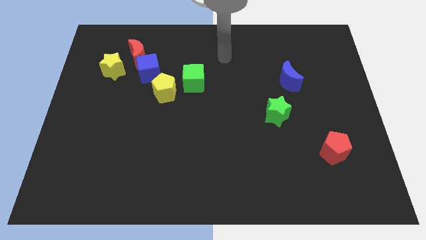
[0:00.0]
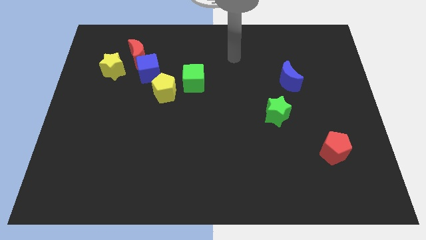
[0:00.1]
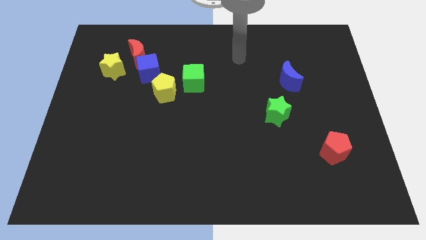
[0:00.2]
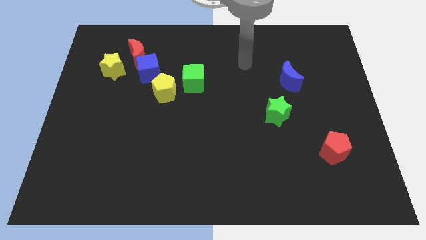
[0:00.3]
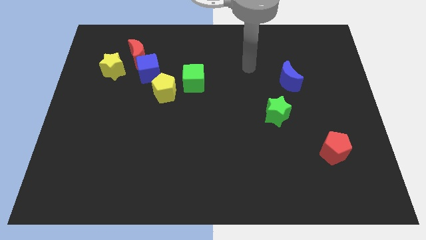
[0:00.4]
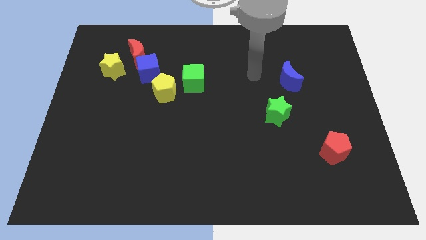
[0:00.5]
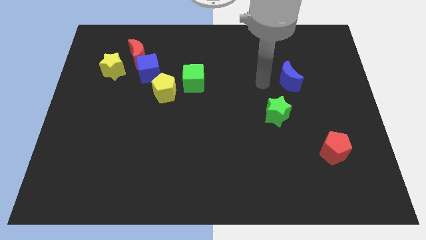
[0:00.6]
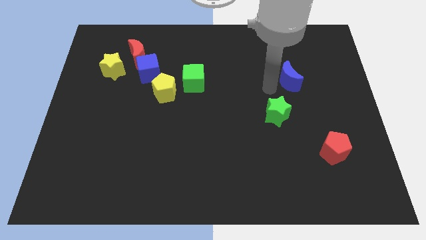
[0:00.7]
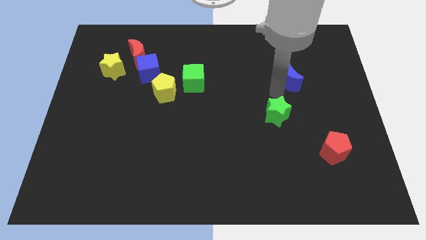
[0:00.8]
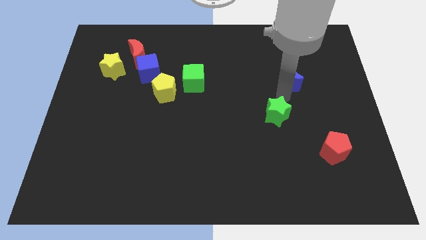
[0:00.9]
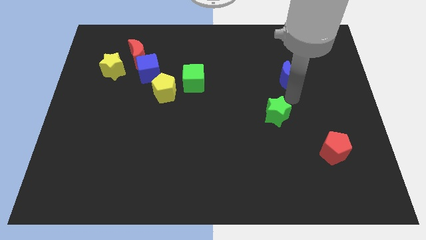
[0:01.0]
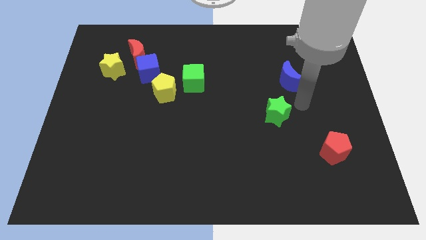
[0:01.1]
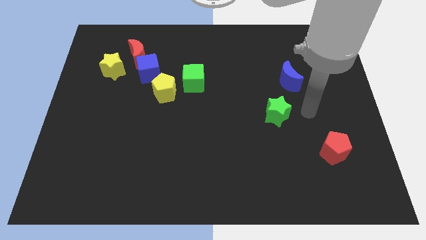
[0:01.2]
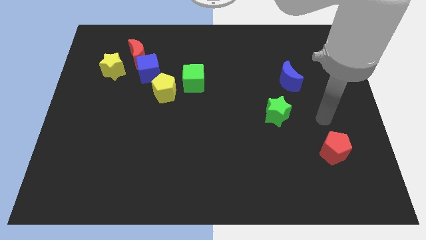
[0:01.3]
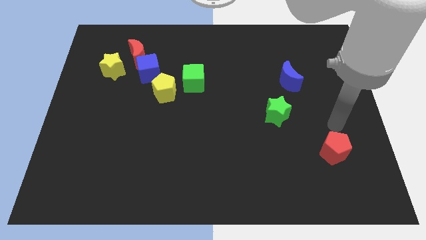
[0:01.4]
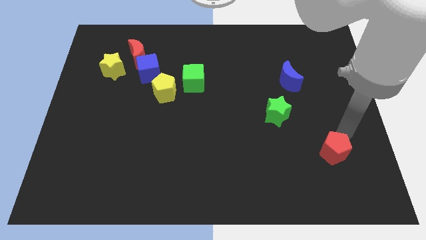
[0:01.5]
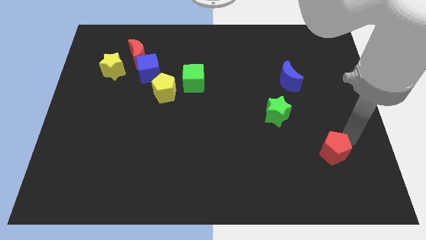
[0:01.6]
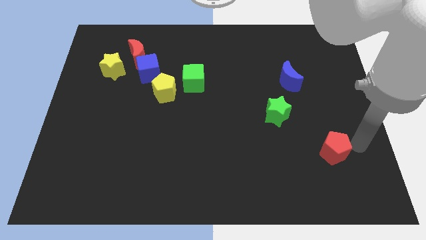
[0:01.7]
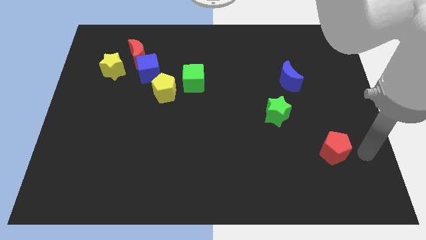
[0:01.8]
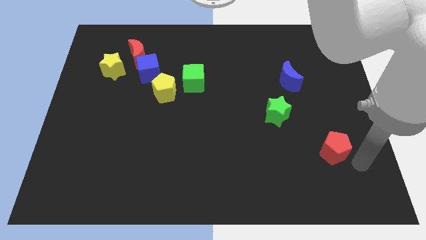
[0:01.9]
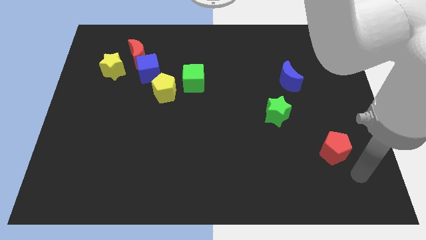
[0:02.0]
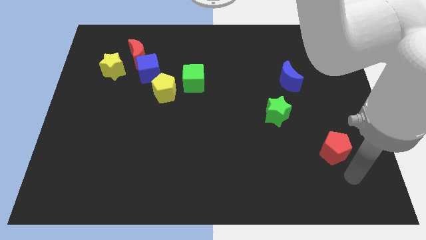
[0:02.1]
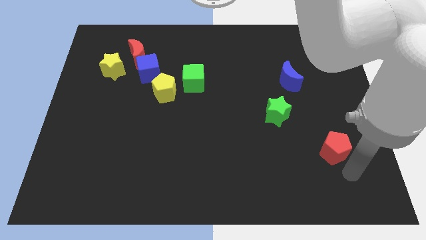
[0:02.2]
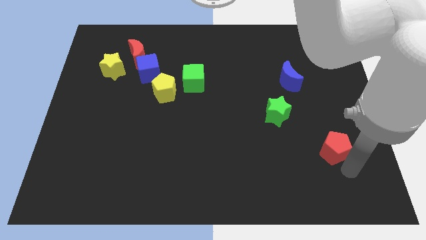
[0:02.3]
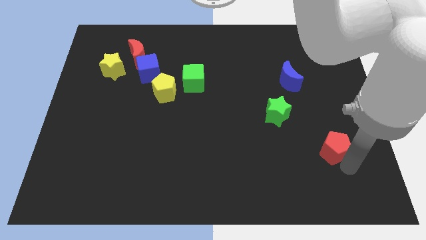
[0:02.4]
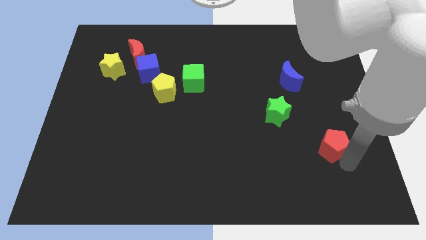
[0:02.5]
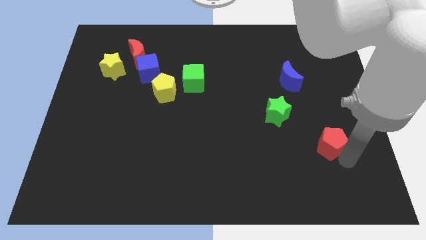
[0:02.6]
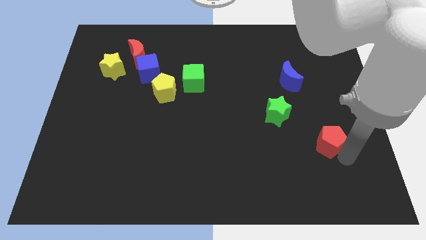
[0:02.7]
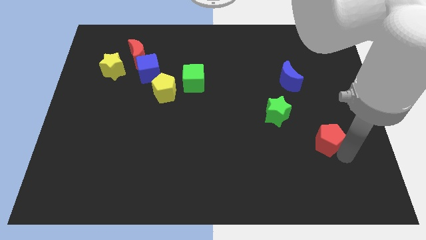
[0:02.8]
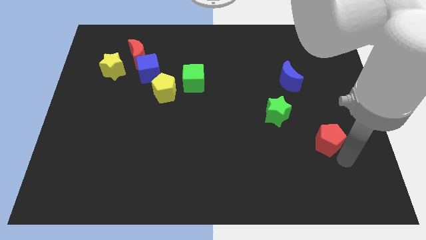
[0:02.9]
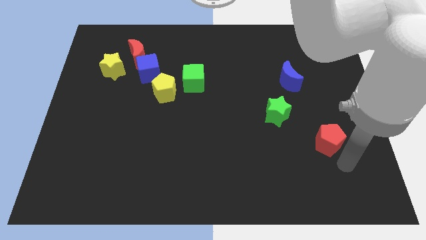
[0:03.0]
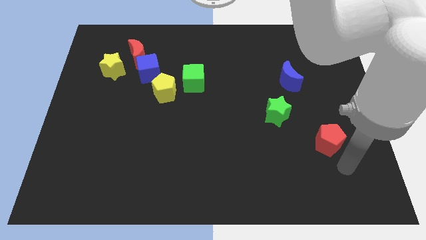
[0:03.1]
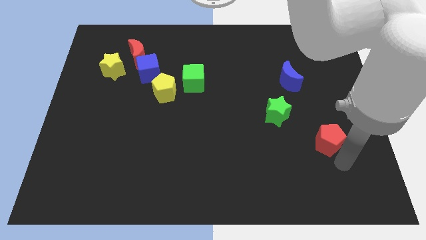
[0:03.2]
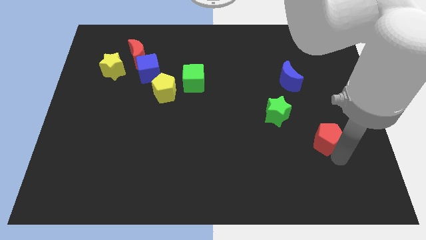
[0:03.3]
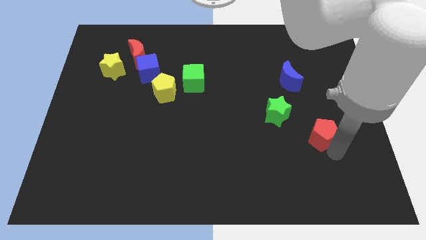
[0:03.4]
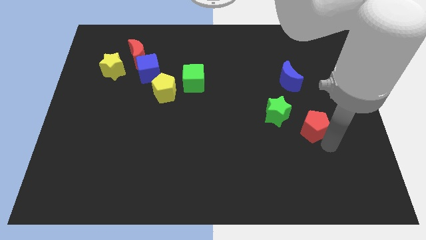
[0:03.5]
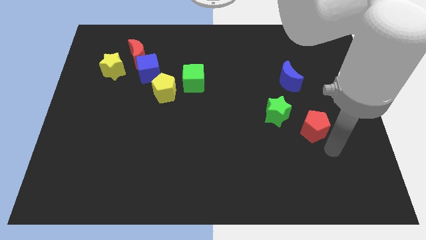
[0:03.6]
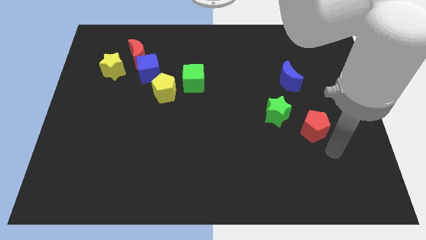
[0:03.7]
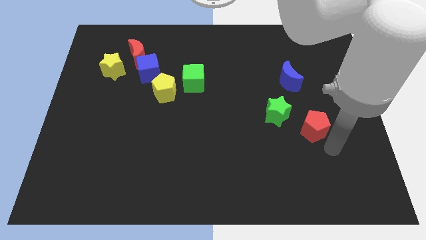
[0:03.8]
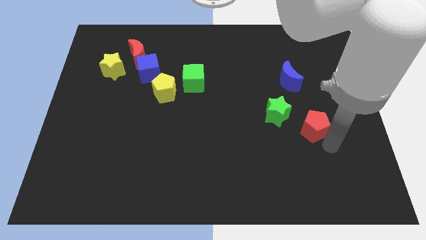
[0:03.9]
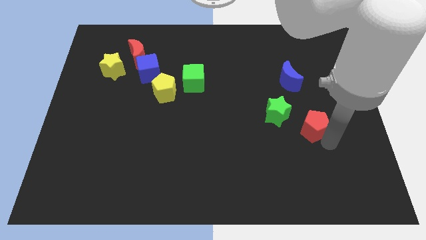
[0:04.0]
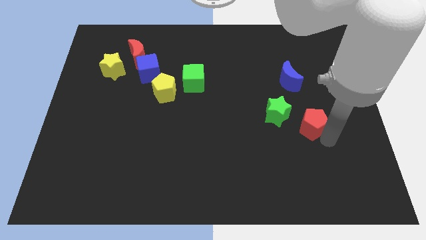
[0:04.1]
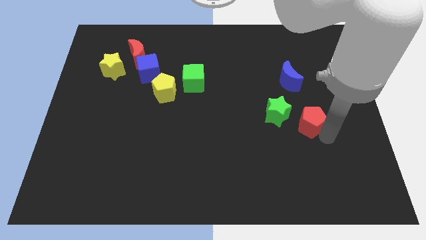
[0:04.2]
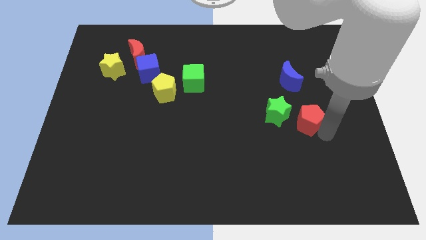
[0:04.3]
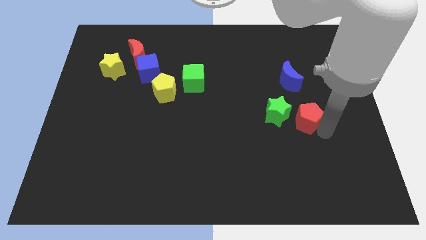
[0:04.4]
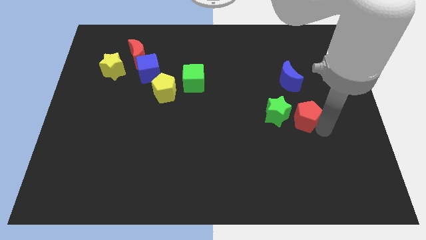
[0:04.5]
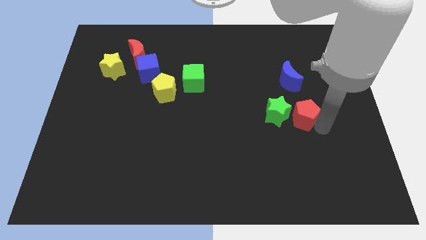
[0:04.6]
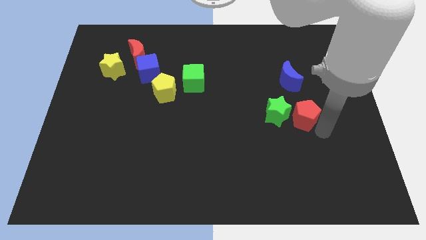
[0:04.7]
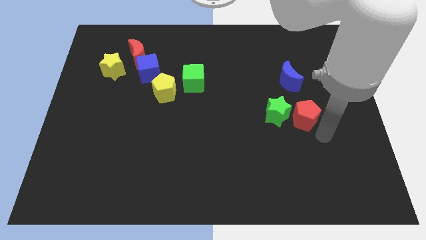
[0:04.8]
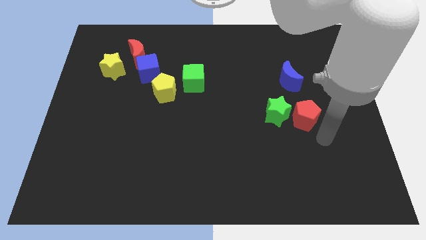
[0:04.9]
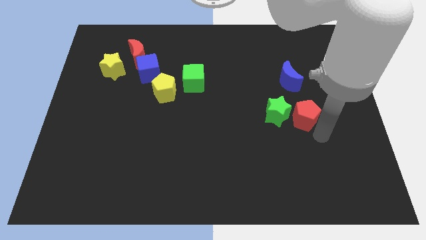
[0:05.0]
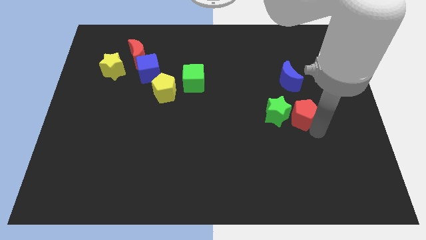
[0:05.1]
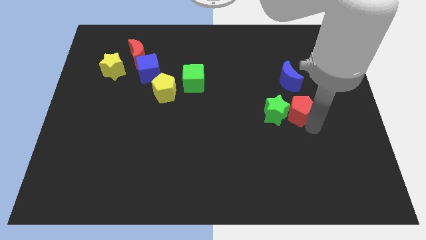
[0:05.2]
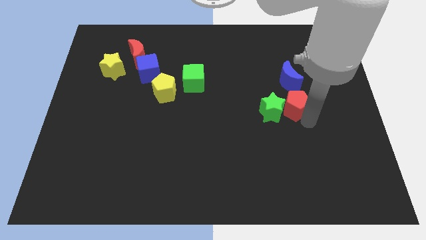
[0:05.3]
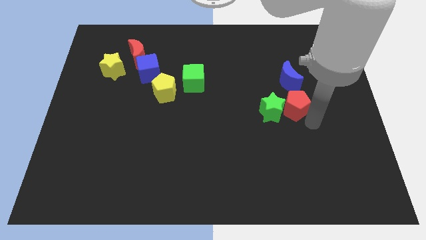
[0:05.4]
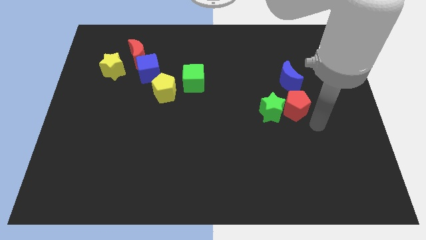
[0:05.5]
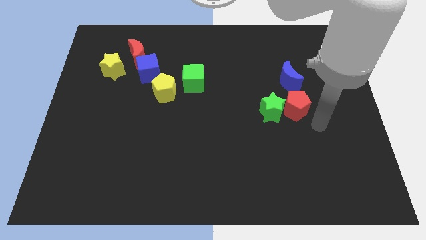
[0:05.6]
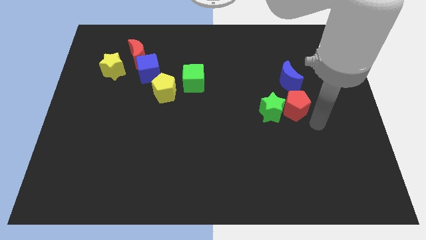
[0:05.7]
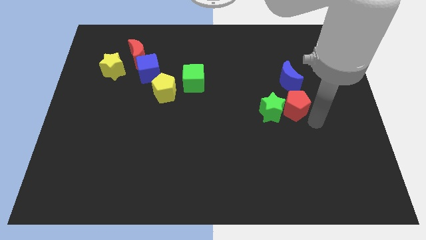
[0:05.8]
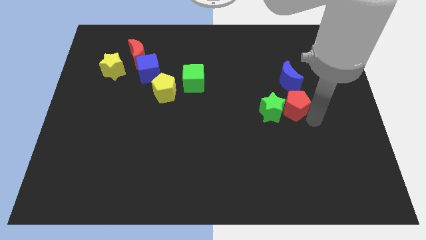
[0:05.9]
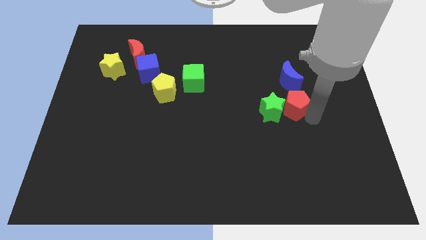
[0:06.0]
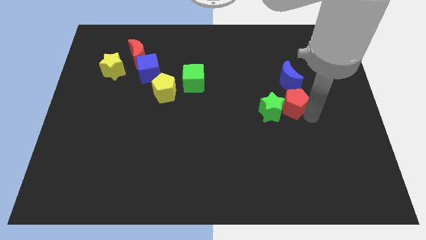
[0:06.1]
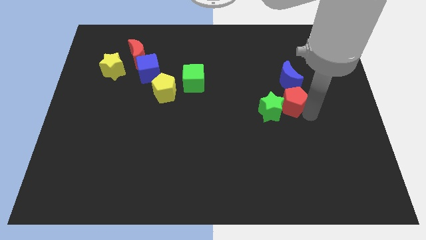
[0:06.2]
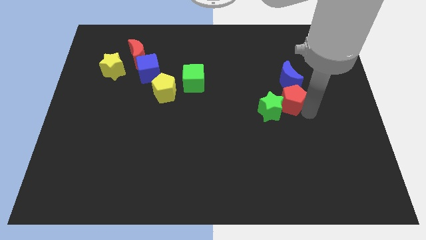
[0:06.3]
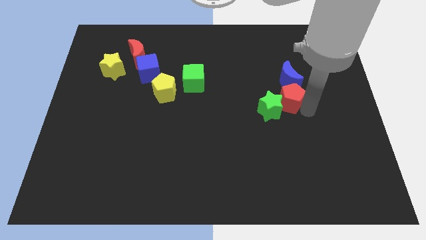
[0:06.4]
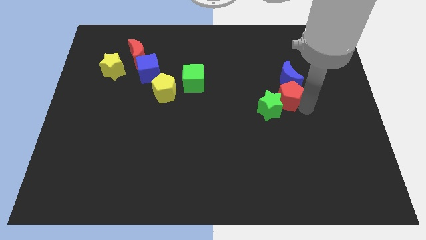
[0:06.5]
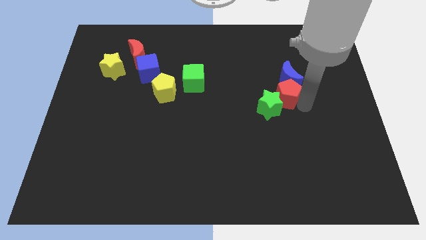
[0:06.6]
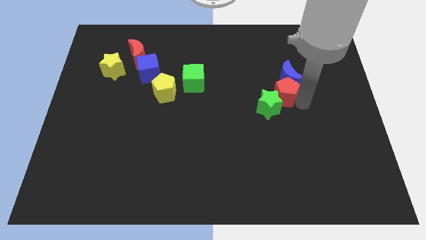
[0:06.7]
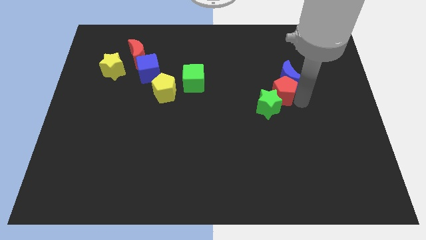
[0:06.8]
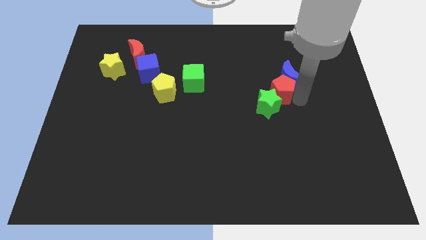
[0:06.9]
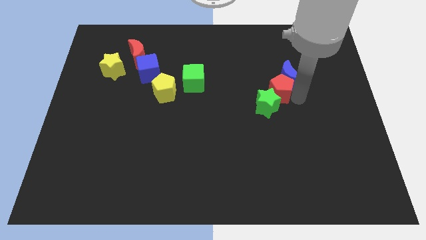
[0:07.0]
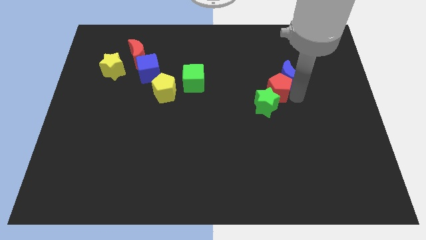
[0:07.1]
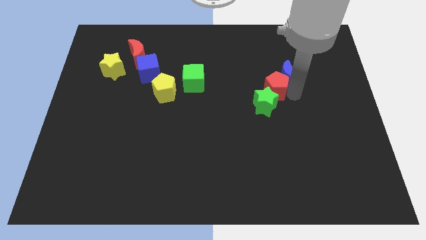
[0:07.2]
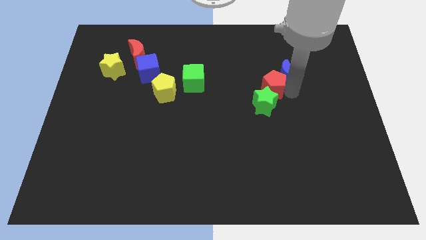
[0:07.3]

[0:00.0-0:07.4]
push the red pentagon diagonally up and to the left

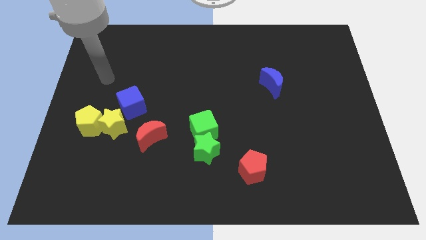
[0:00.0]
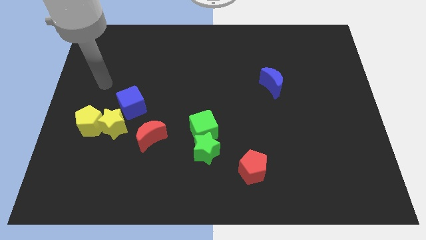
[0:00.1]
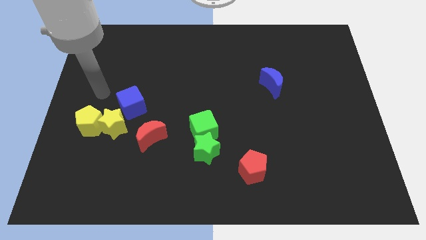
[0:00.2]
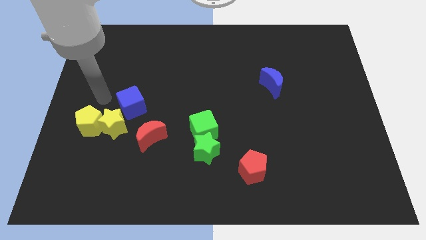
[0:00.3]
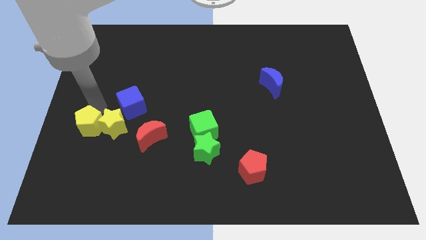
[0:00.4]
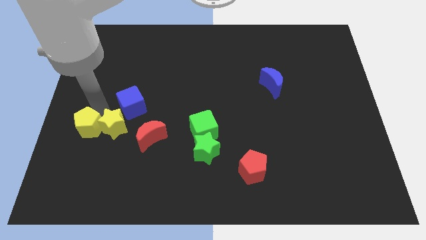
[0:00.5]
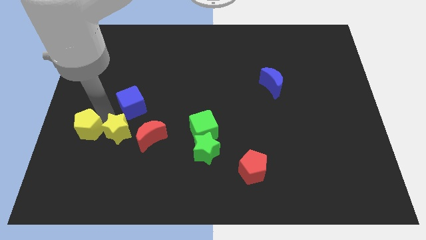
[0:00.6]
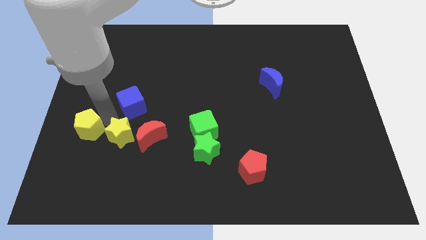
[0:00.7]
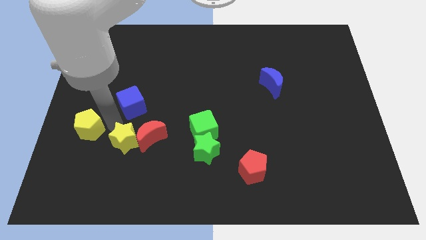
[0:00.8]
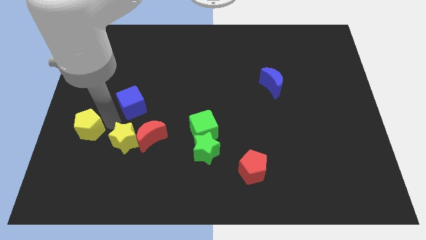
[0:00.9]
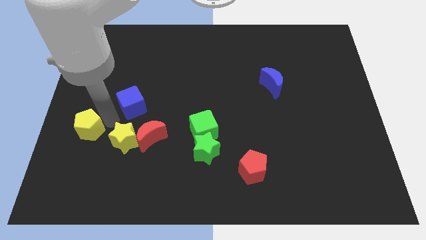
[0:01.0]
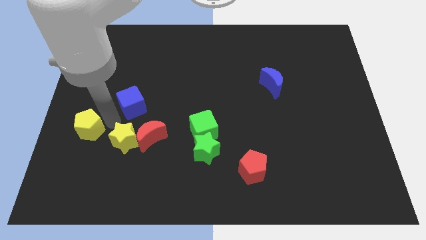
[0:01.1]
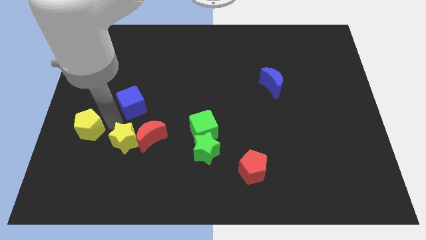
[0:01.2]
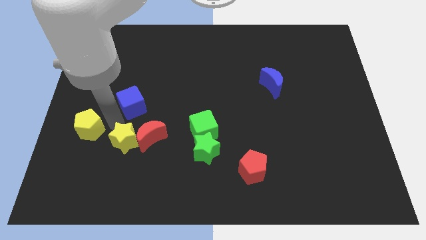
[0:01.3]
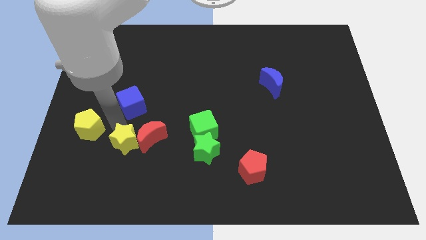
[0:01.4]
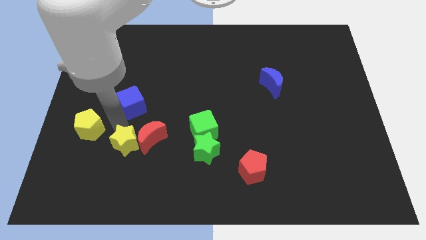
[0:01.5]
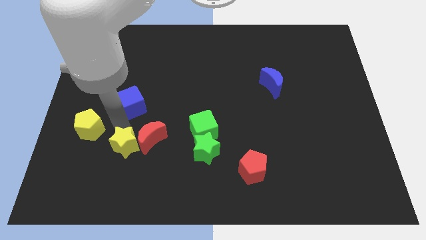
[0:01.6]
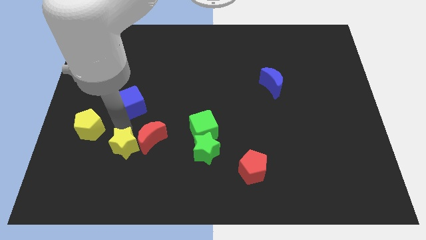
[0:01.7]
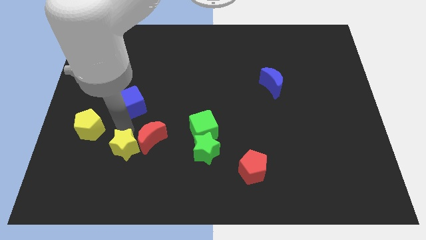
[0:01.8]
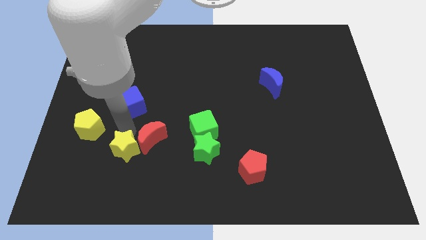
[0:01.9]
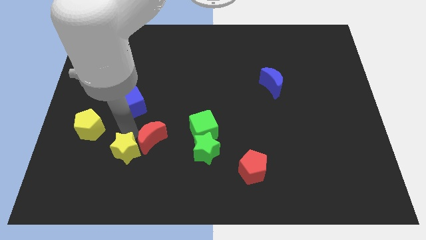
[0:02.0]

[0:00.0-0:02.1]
slide the yellow star down and right diagonally a bit
